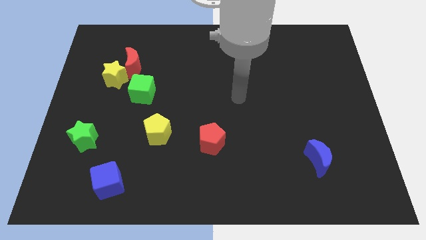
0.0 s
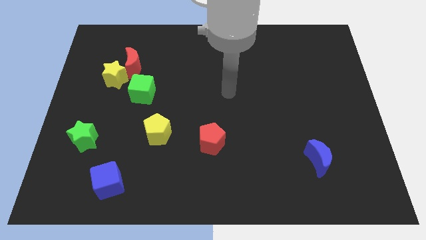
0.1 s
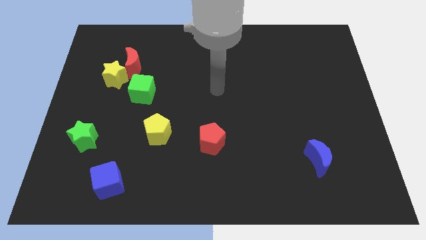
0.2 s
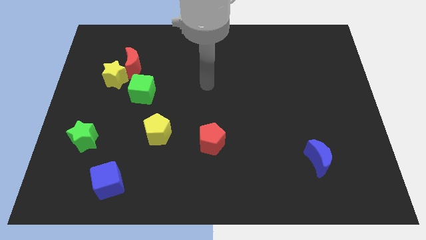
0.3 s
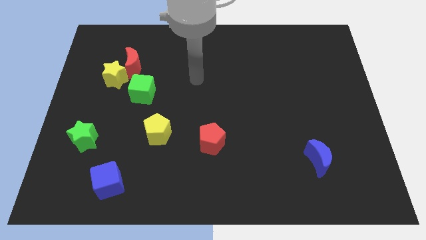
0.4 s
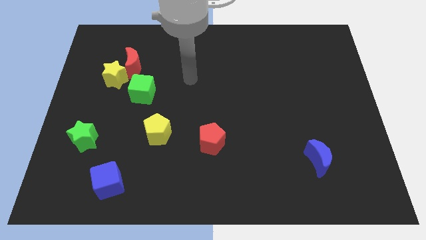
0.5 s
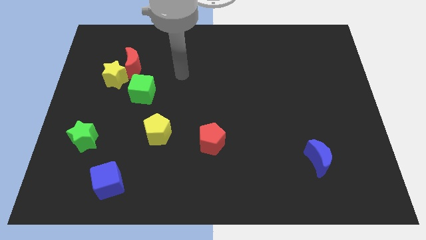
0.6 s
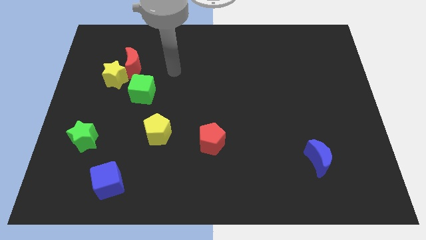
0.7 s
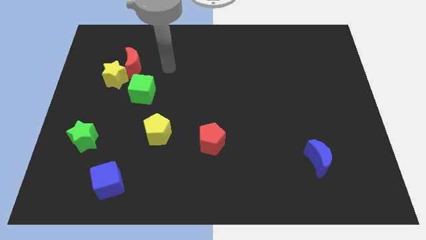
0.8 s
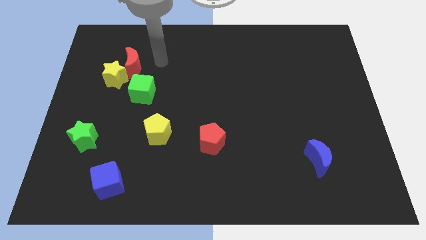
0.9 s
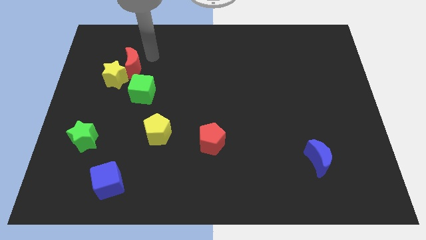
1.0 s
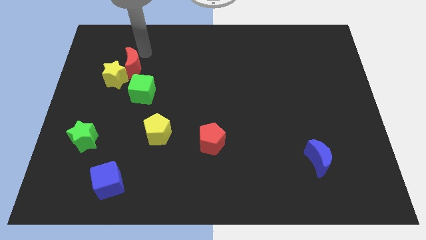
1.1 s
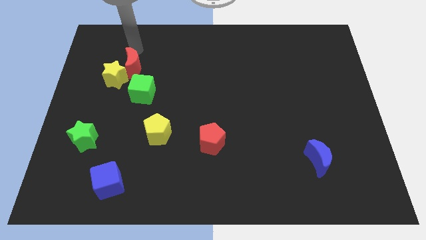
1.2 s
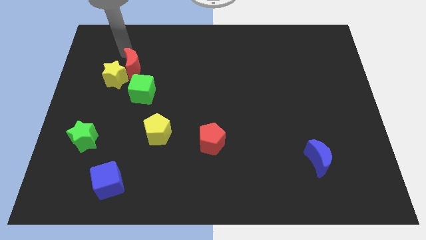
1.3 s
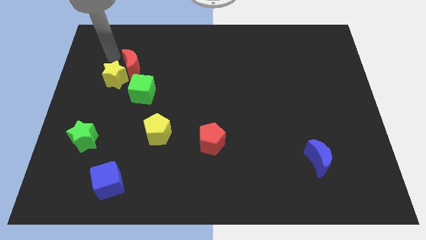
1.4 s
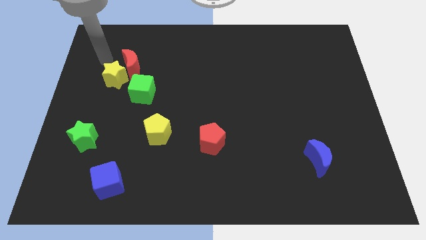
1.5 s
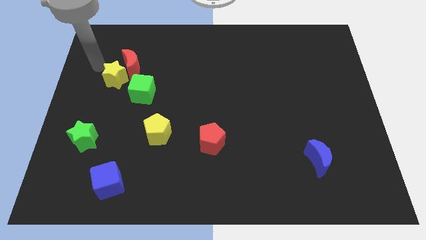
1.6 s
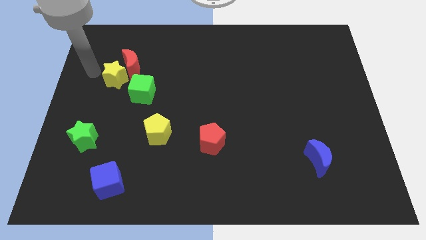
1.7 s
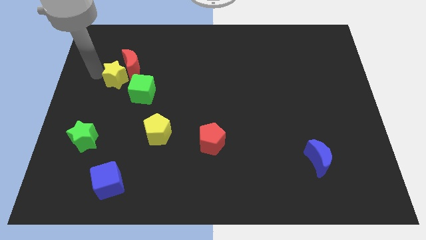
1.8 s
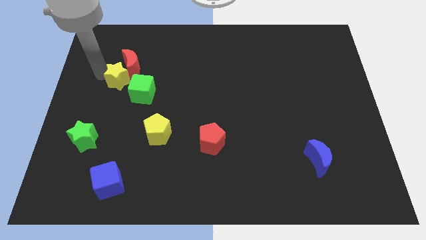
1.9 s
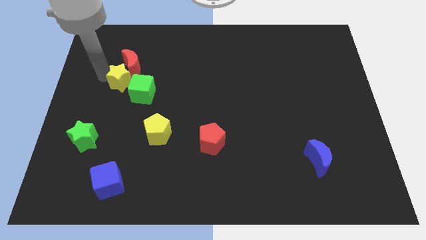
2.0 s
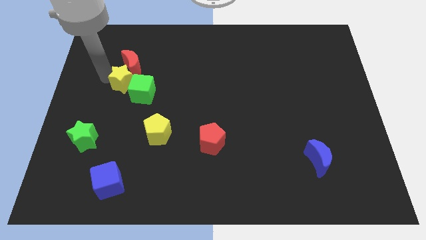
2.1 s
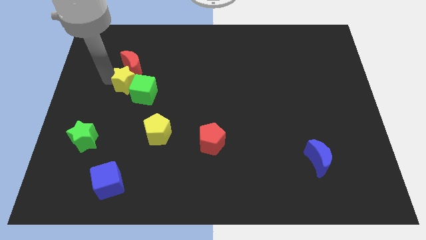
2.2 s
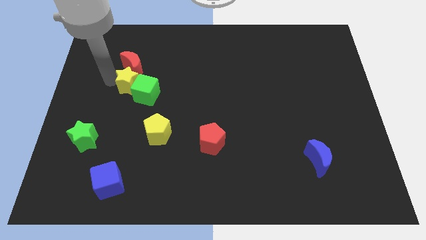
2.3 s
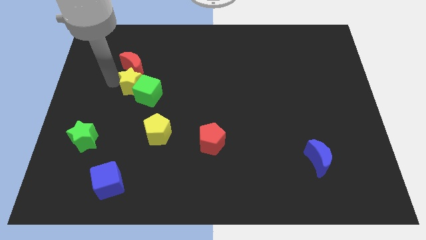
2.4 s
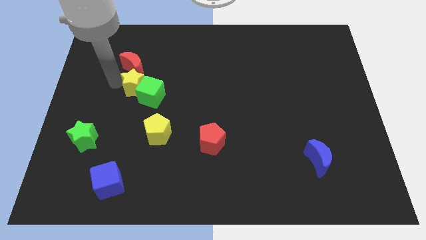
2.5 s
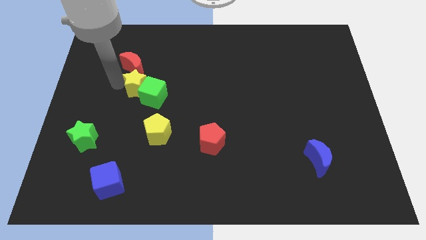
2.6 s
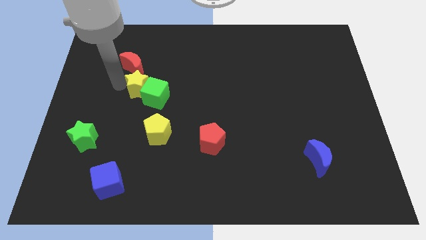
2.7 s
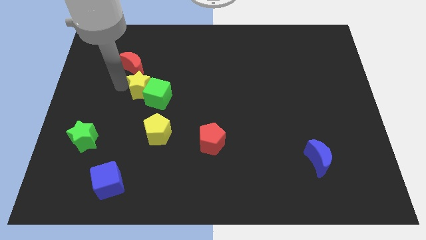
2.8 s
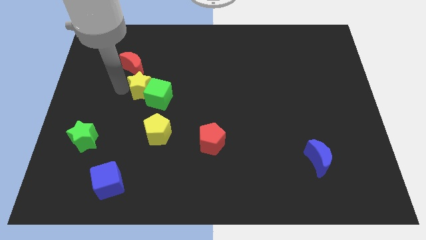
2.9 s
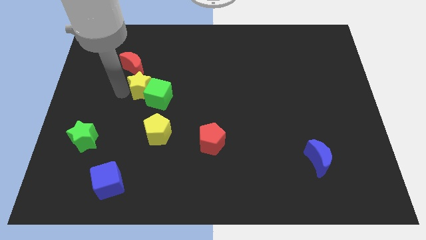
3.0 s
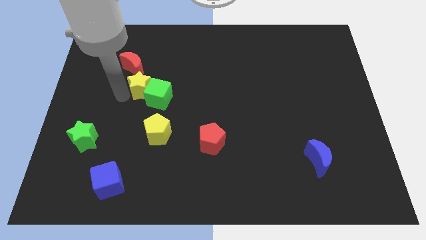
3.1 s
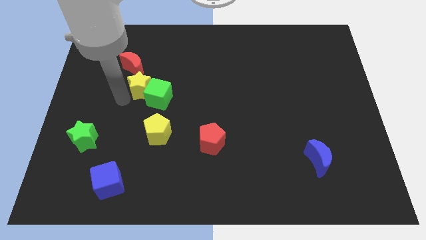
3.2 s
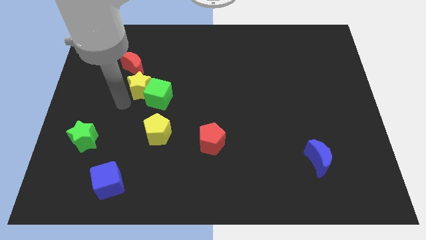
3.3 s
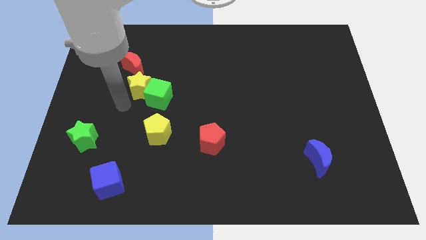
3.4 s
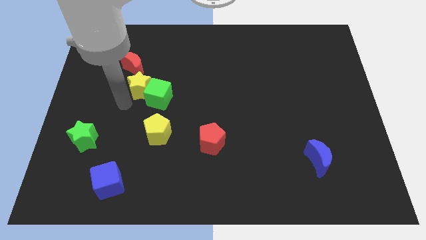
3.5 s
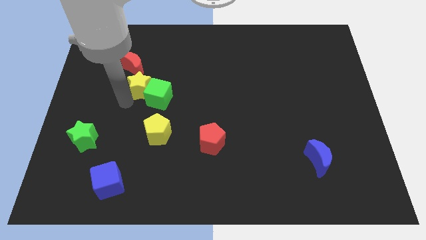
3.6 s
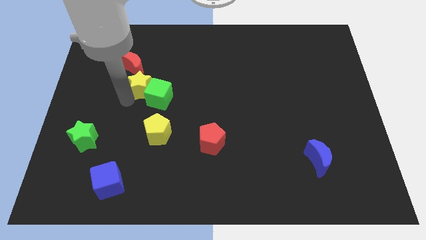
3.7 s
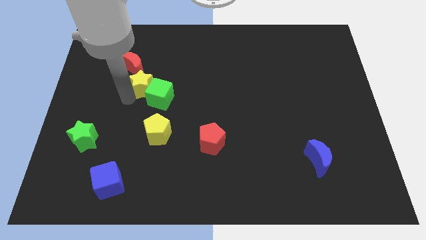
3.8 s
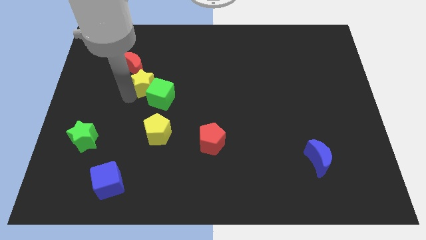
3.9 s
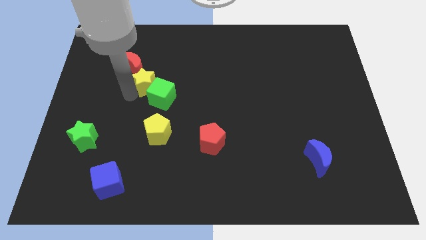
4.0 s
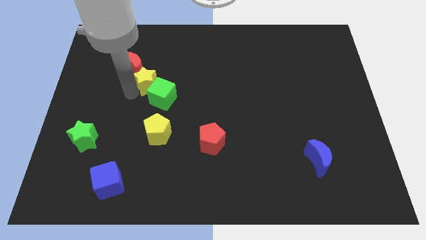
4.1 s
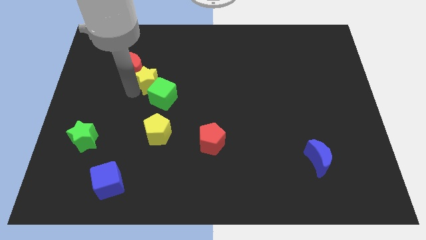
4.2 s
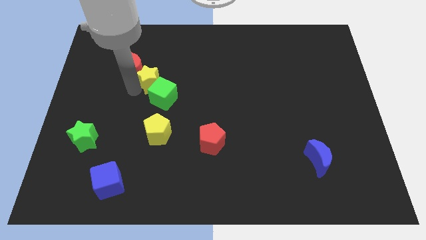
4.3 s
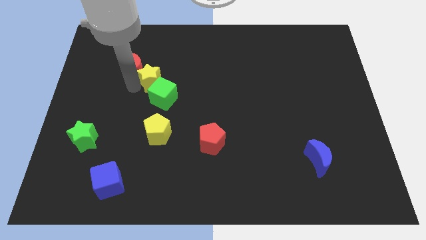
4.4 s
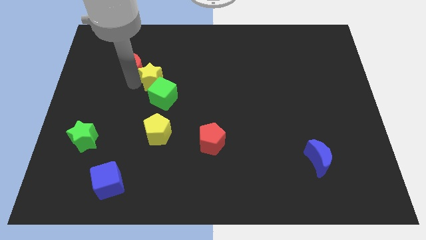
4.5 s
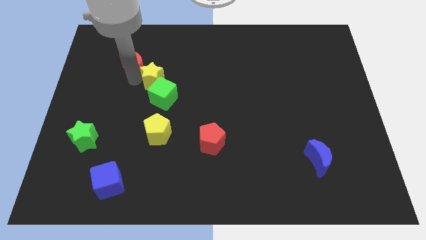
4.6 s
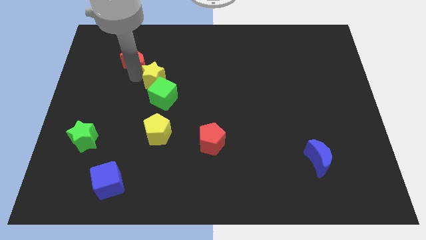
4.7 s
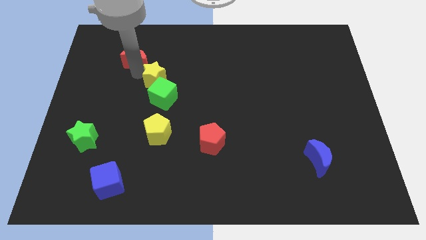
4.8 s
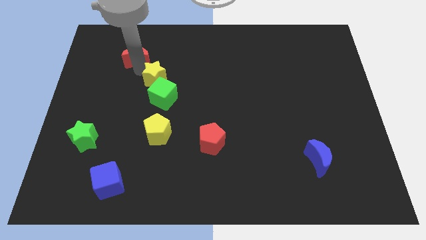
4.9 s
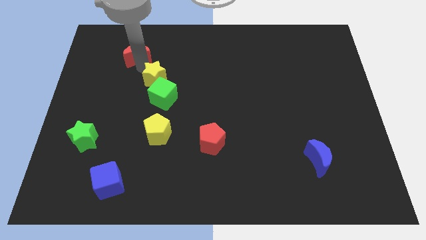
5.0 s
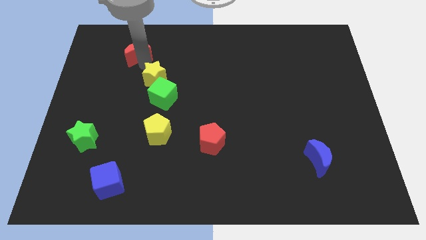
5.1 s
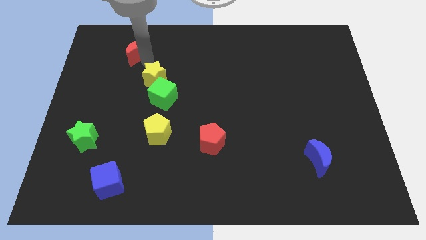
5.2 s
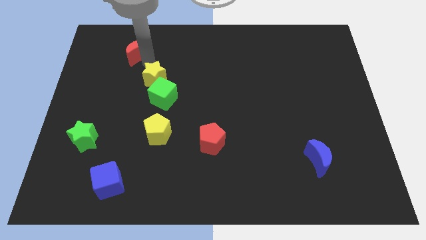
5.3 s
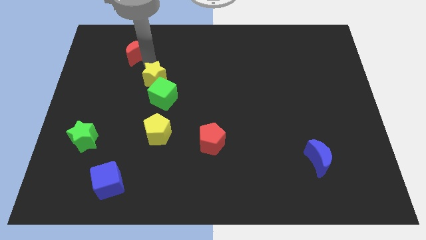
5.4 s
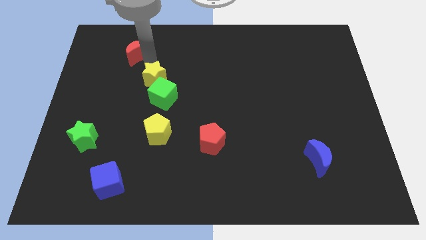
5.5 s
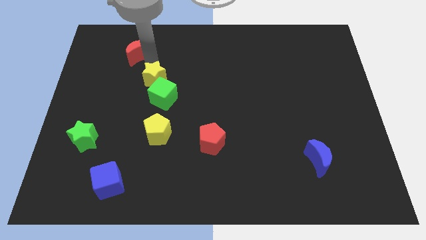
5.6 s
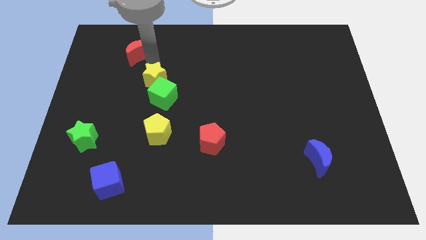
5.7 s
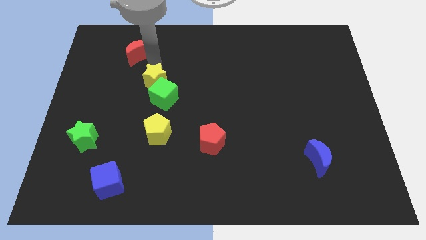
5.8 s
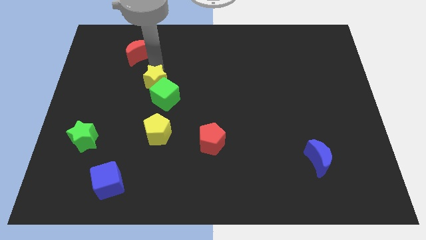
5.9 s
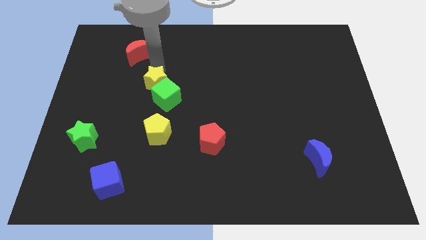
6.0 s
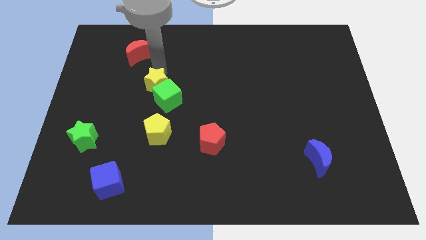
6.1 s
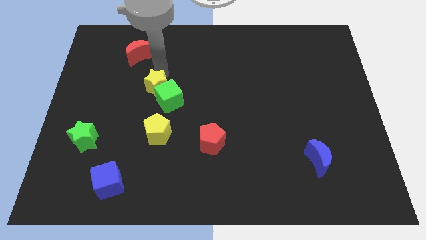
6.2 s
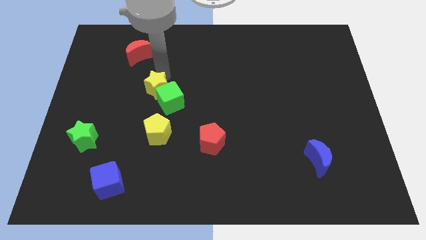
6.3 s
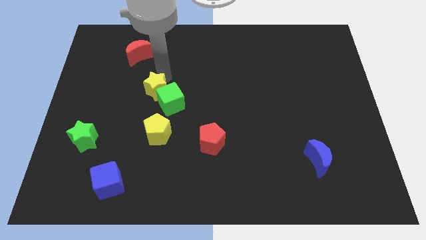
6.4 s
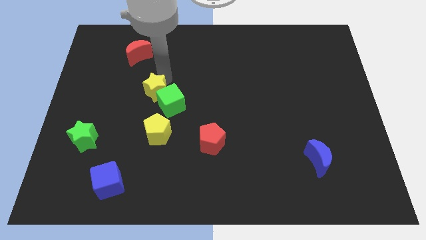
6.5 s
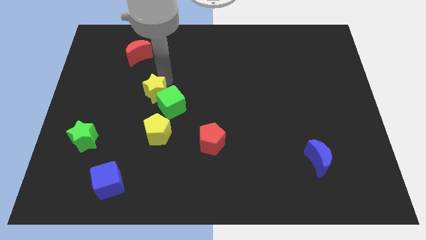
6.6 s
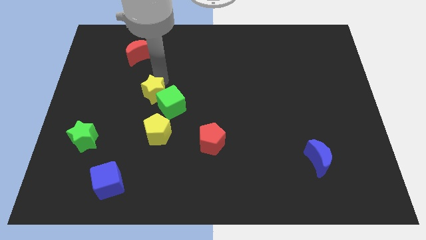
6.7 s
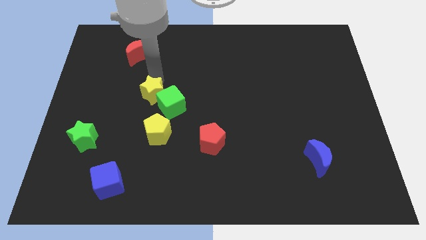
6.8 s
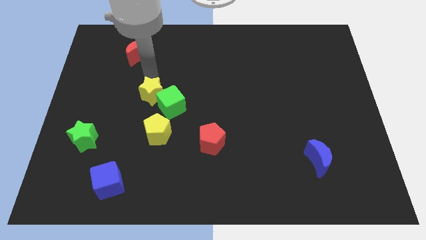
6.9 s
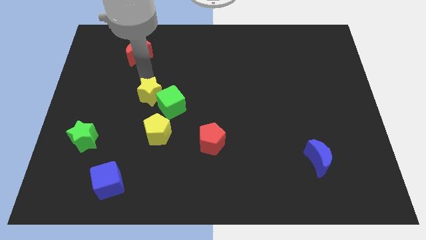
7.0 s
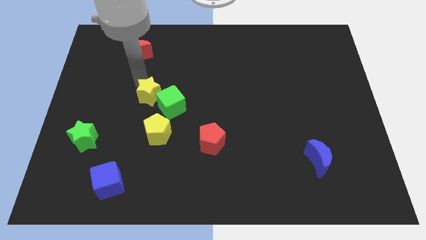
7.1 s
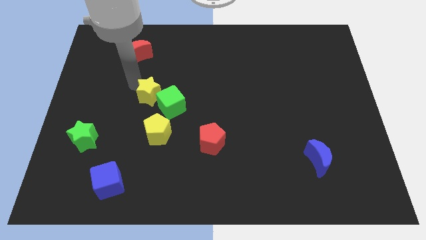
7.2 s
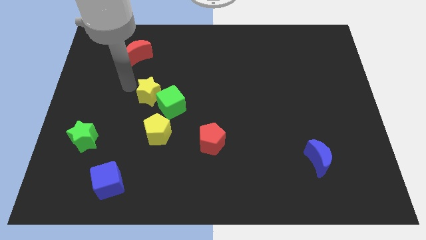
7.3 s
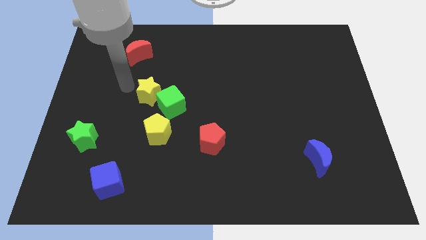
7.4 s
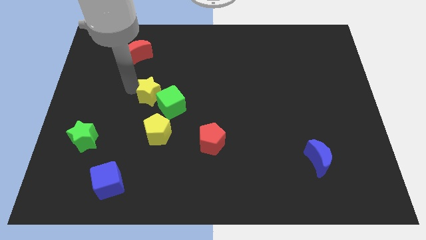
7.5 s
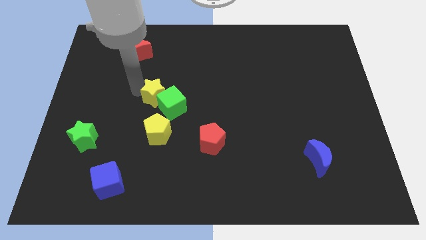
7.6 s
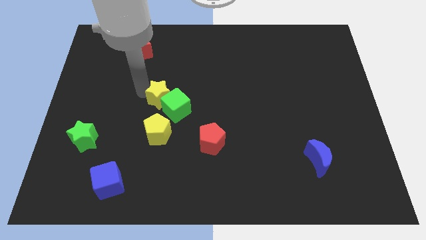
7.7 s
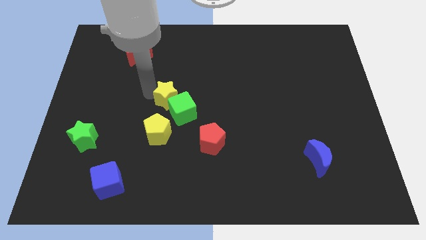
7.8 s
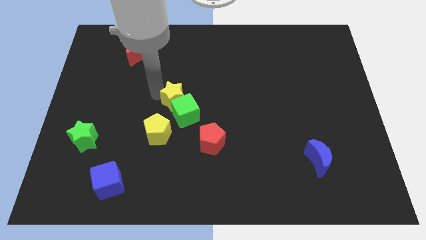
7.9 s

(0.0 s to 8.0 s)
push the yellow star to the top right side of the yellow pentagon
